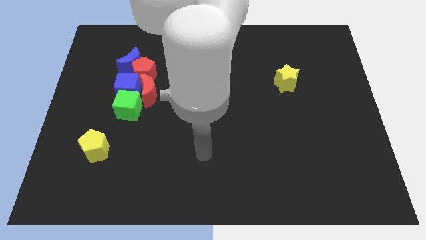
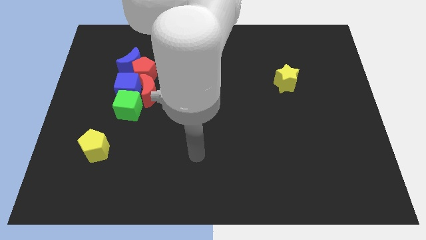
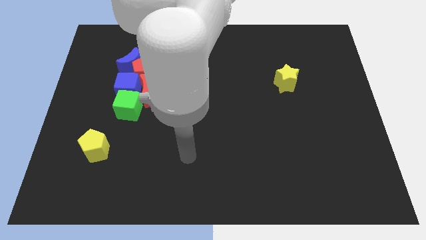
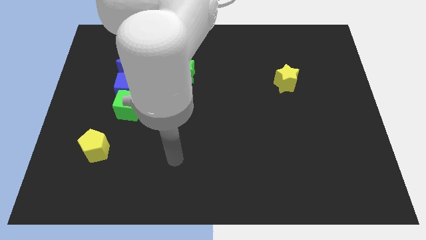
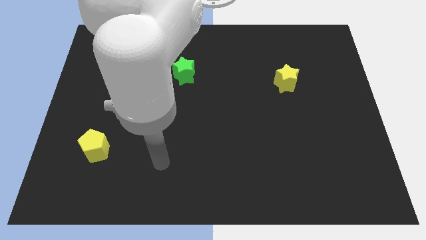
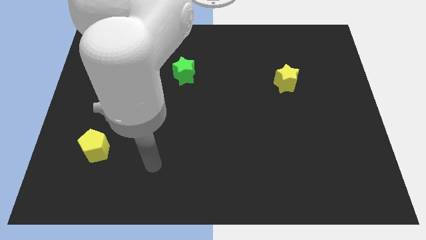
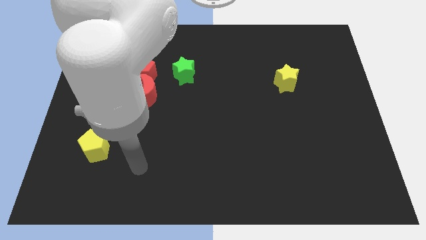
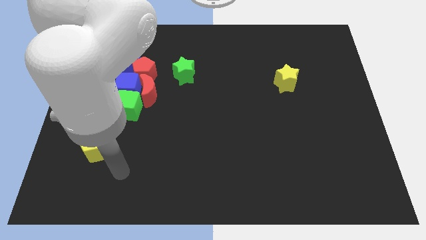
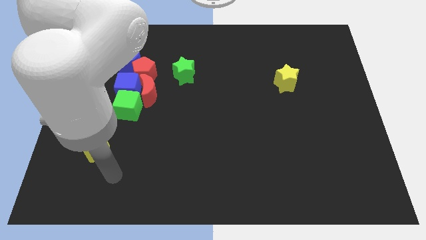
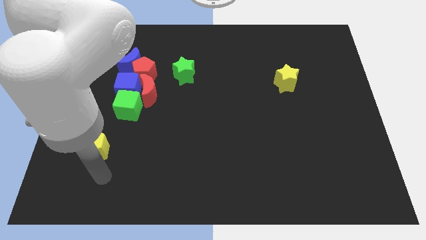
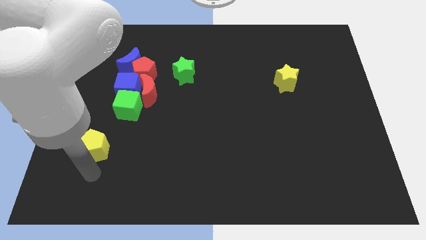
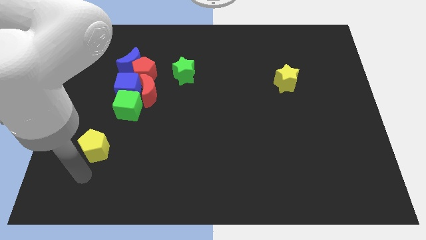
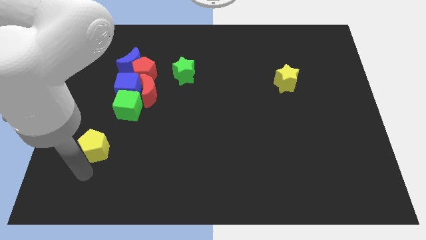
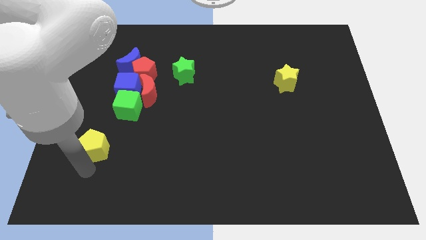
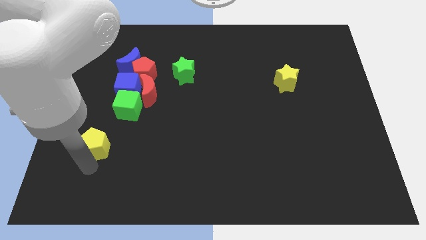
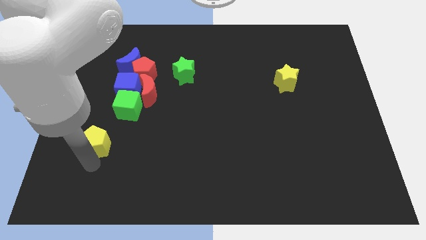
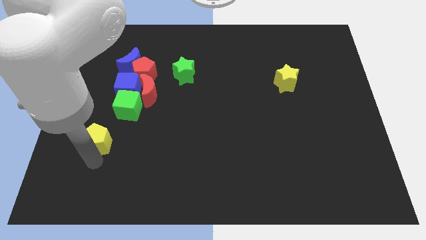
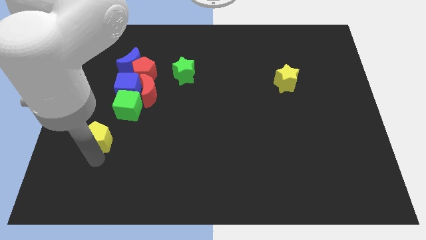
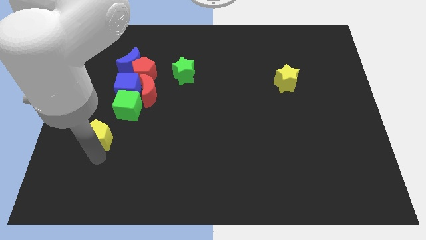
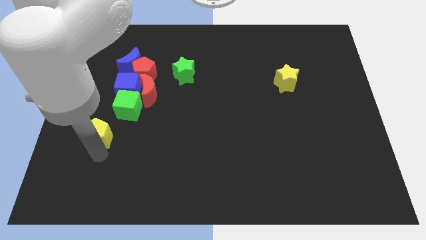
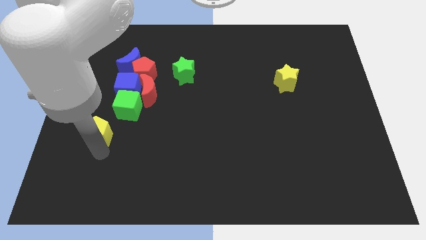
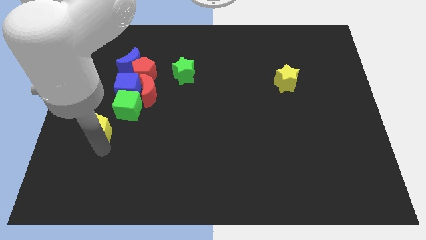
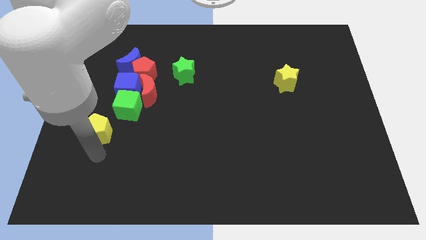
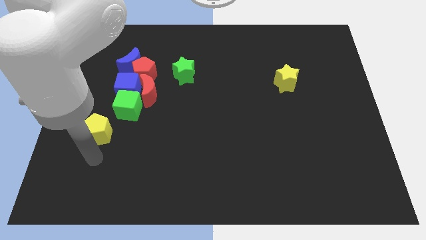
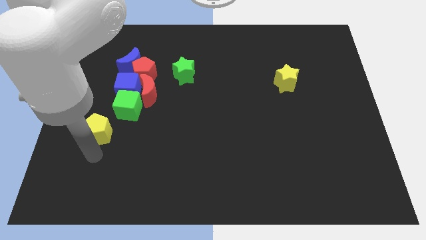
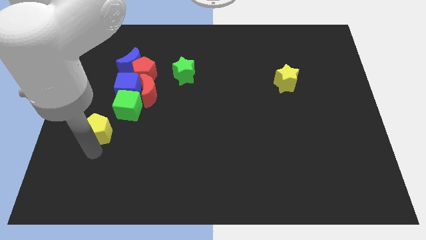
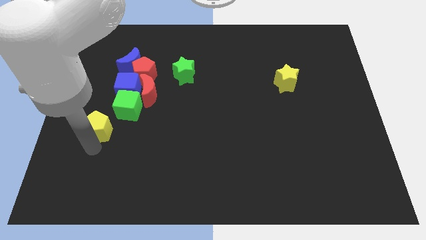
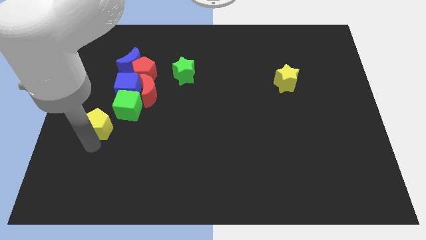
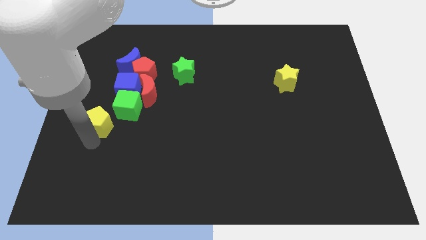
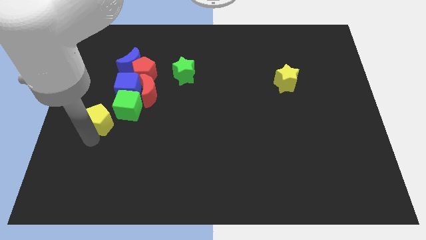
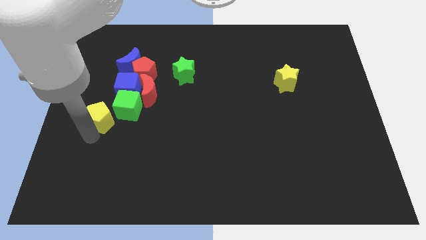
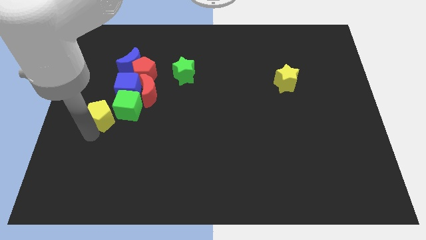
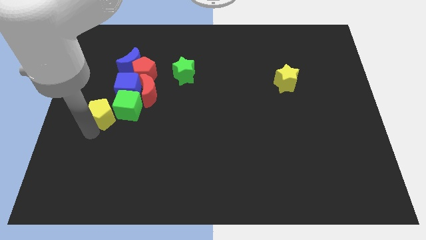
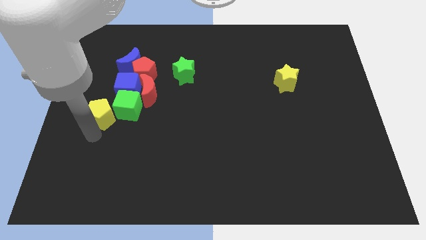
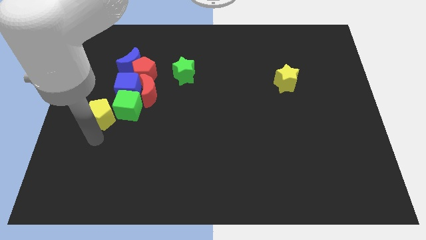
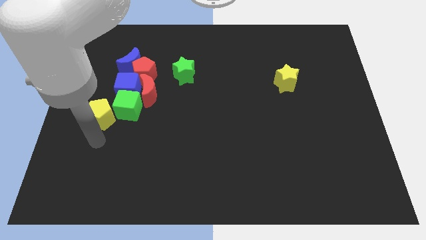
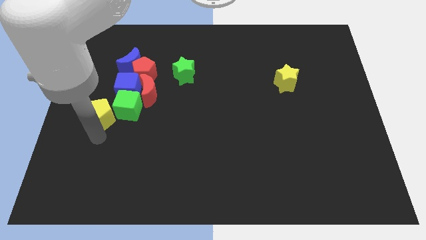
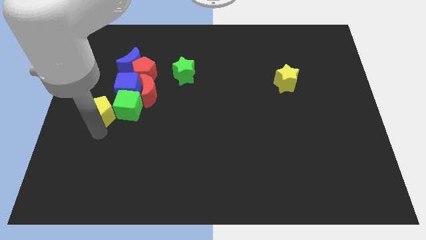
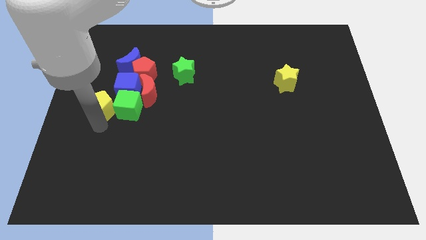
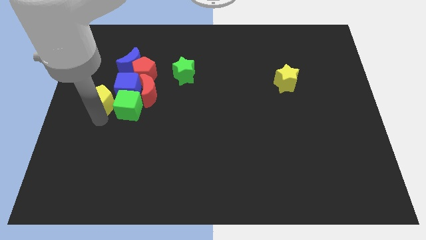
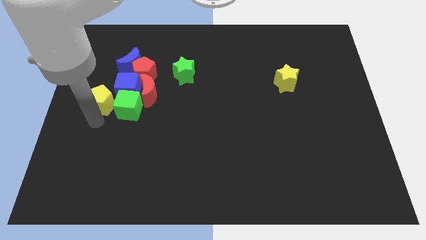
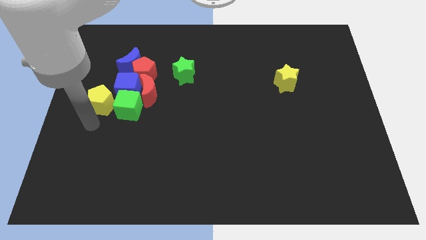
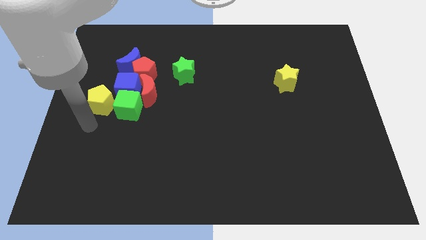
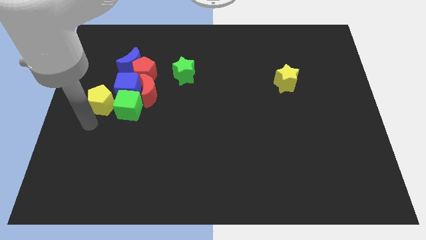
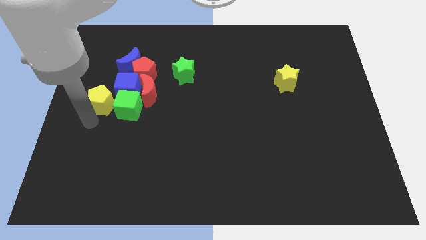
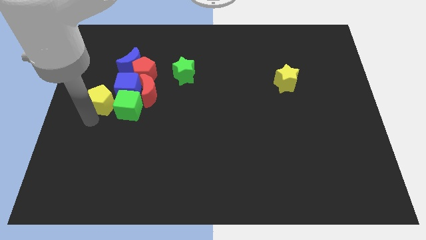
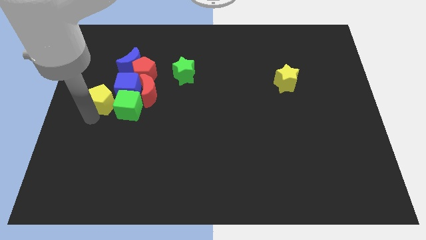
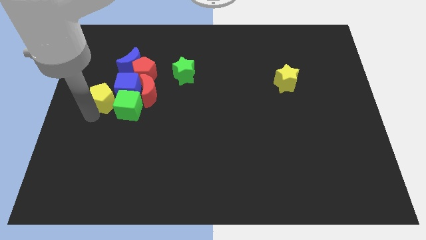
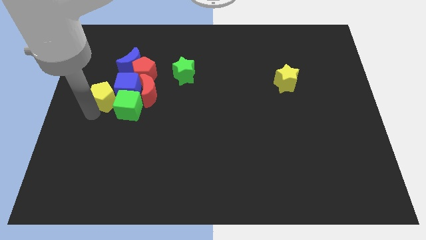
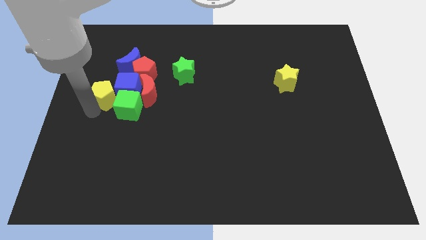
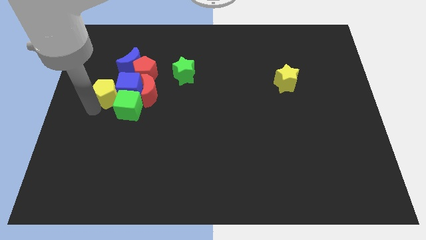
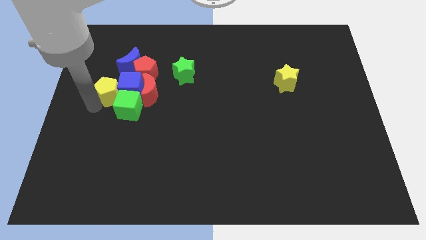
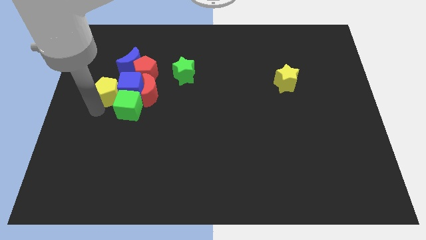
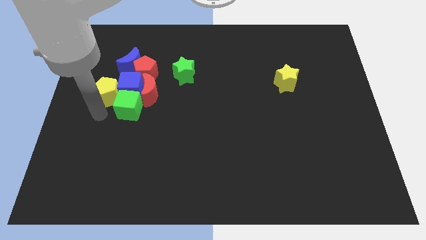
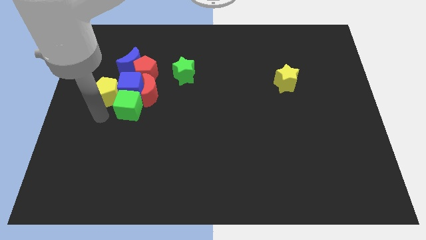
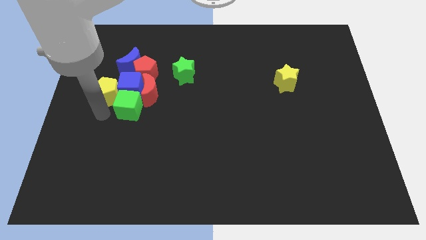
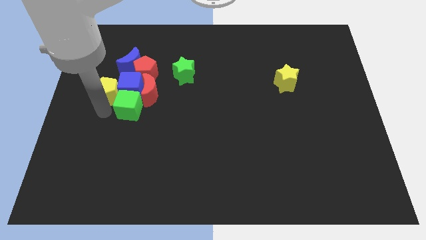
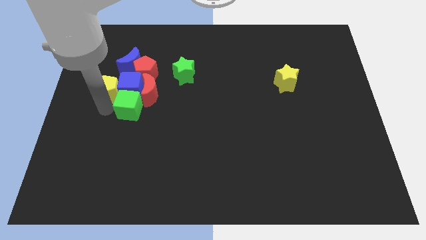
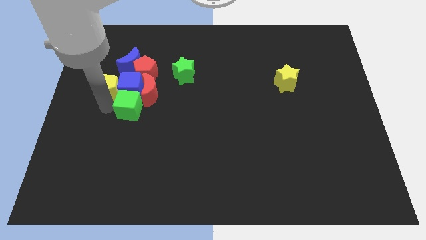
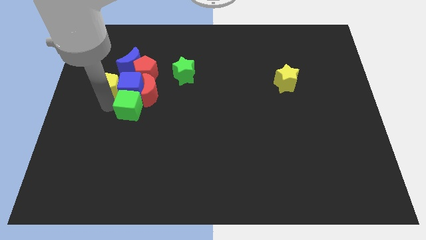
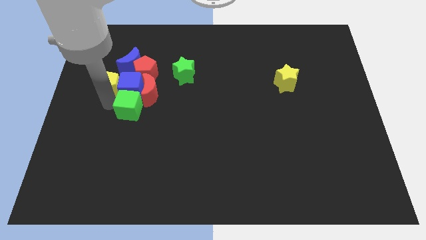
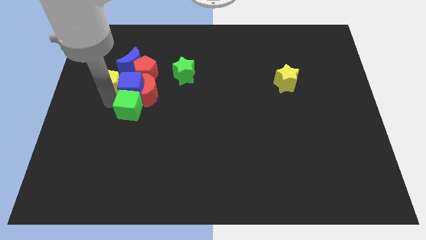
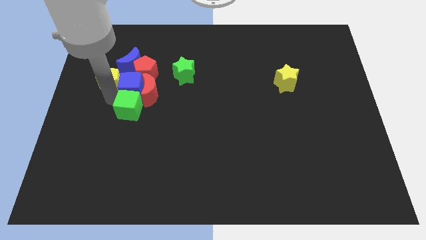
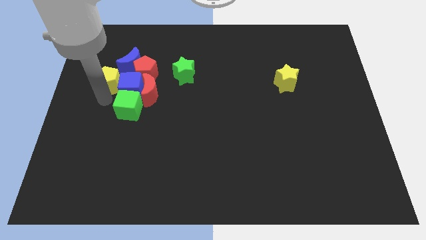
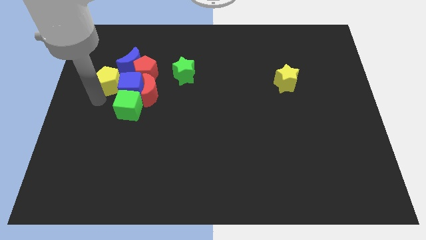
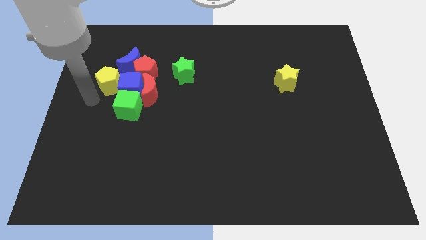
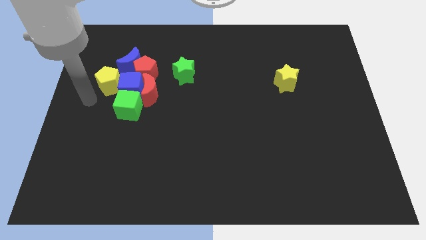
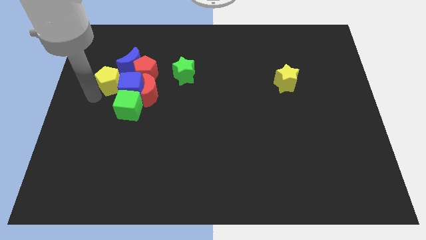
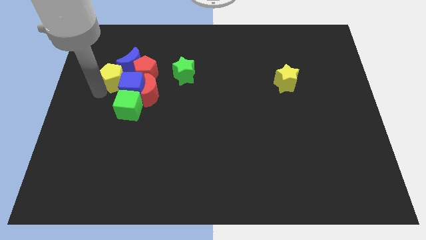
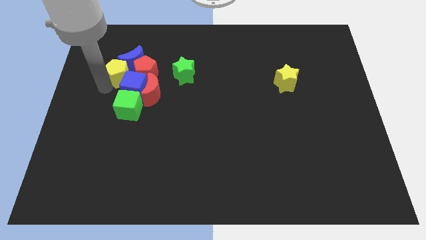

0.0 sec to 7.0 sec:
push the yellow pentagon to the blue moon
